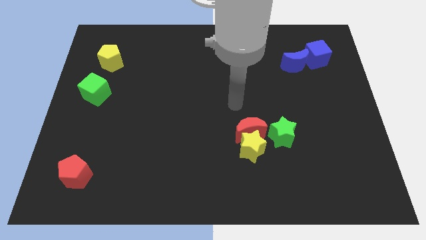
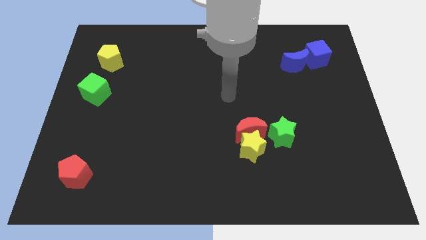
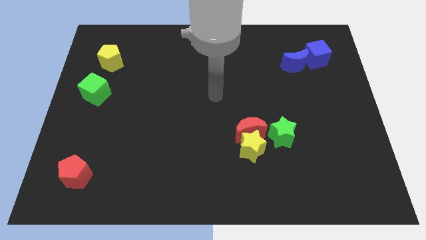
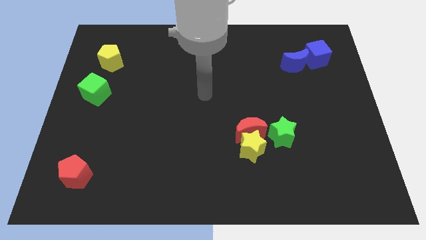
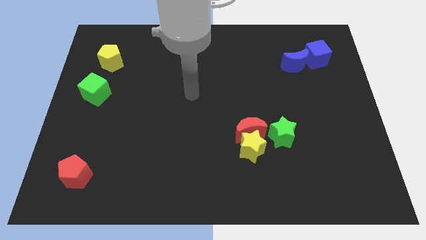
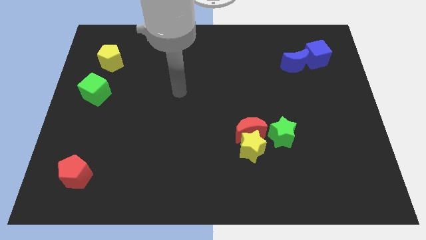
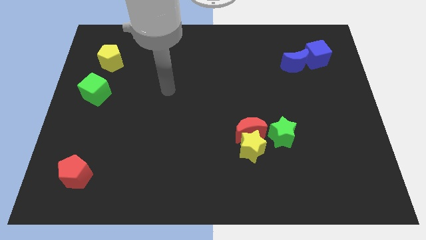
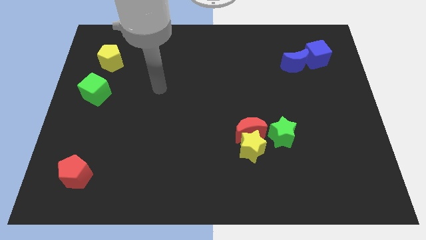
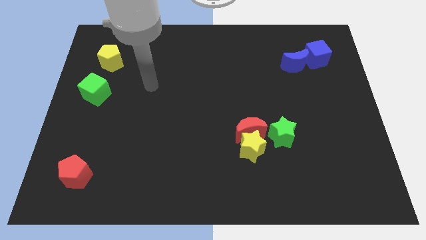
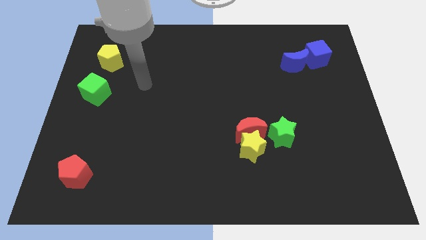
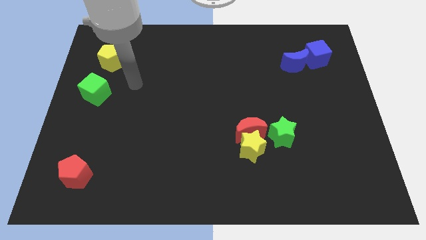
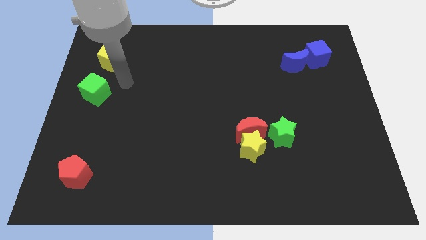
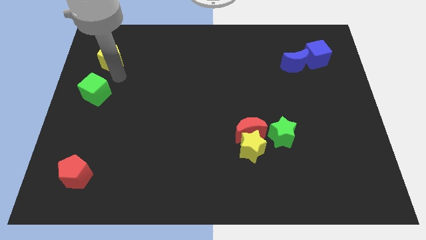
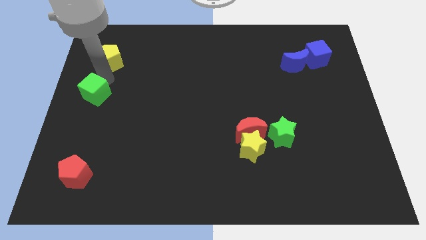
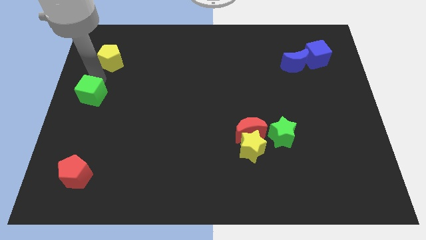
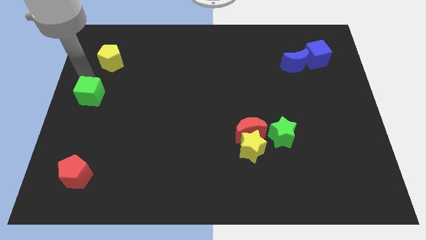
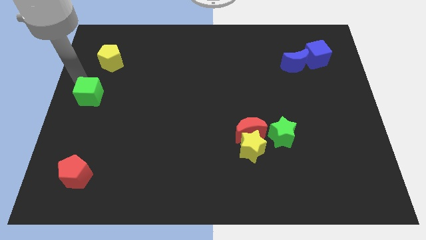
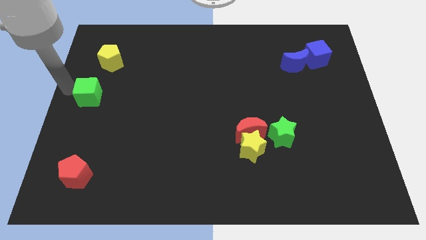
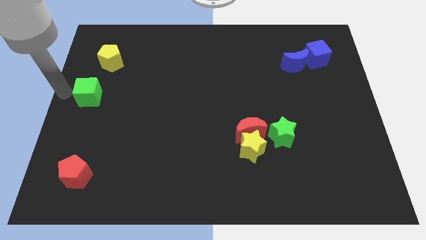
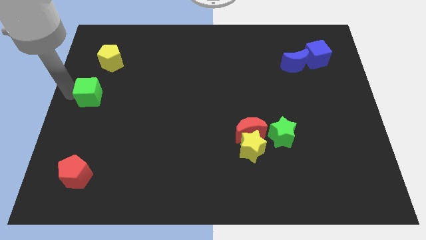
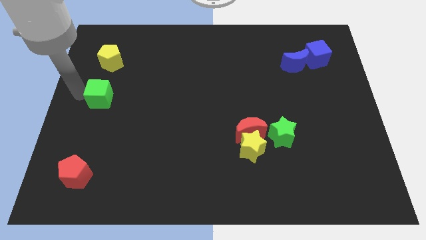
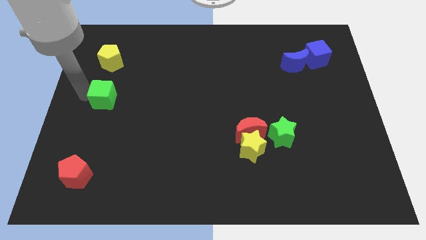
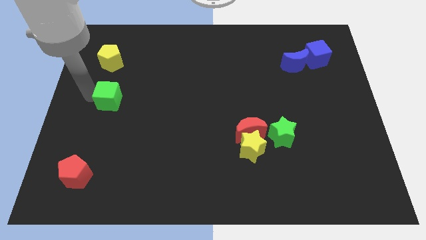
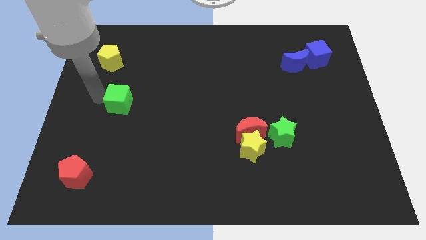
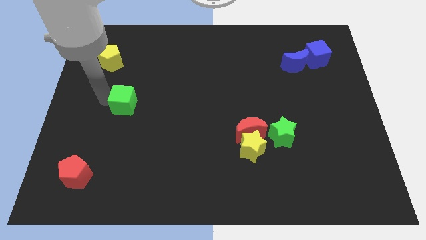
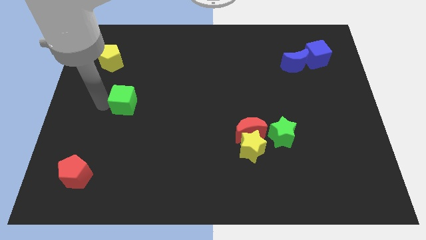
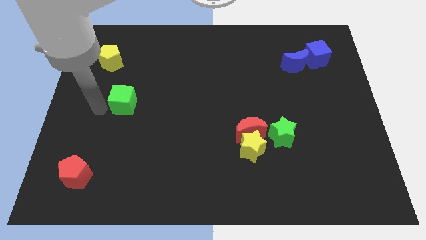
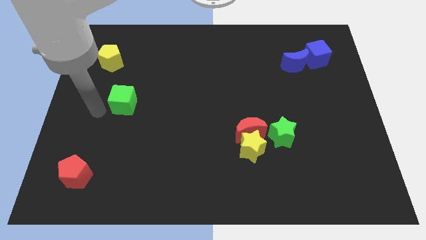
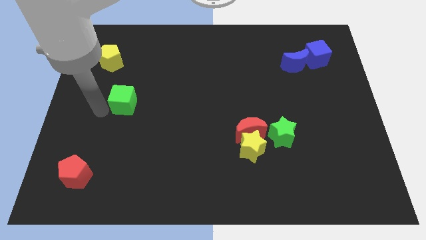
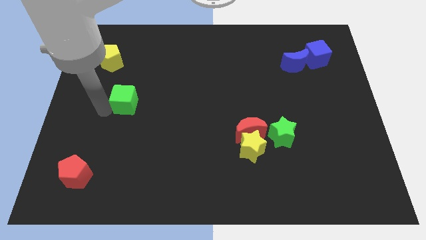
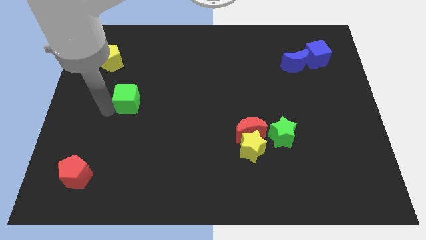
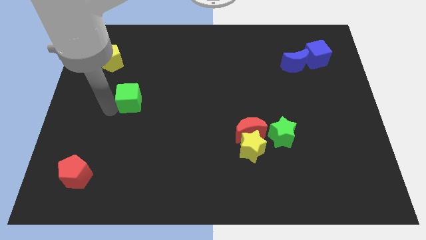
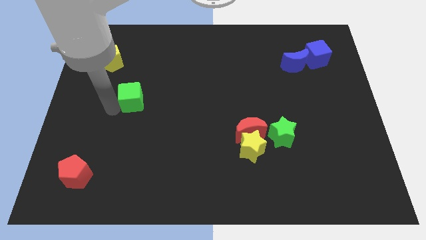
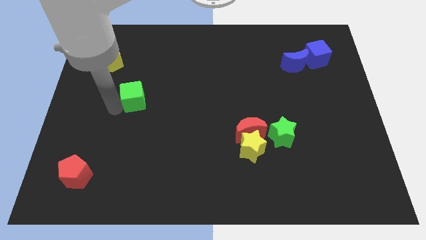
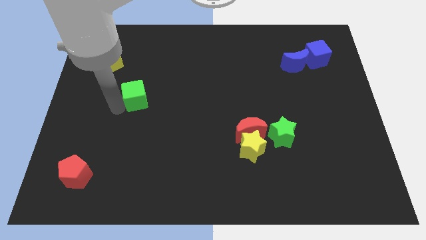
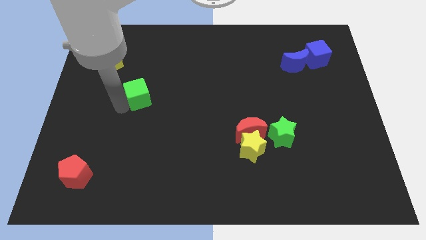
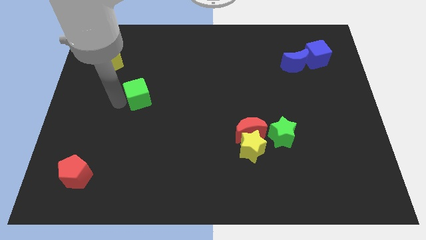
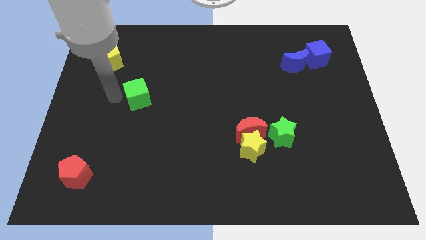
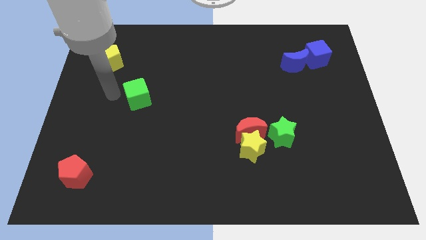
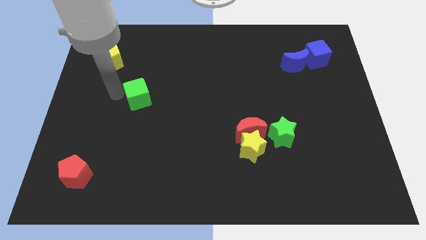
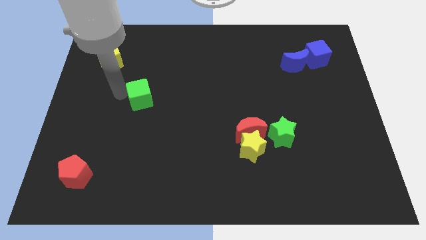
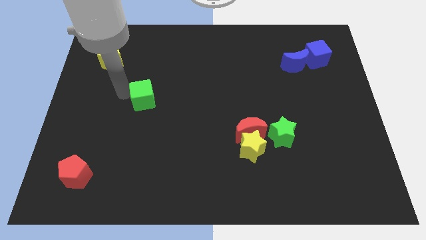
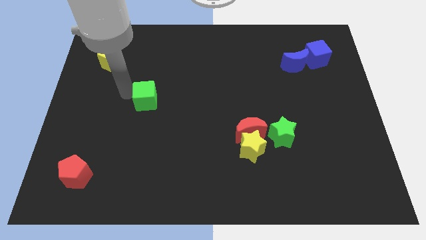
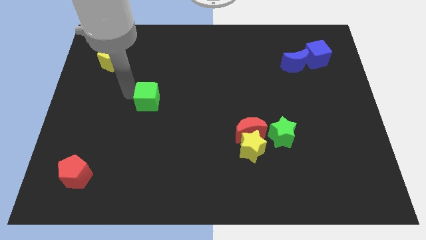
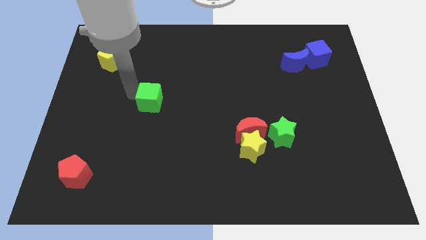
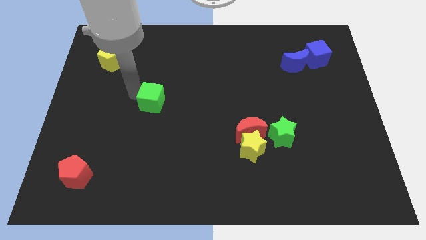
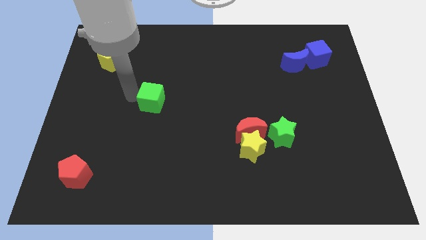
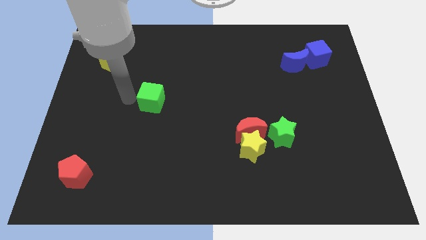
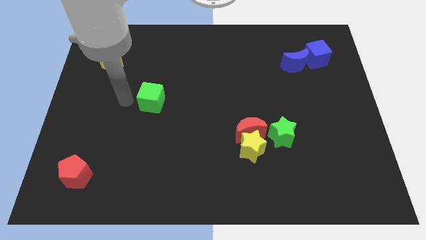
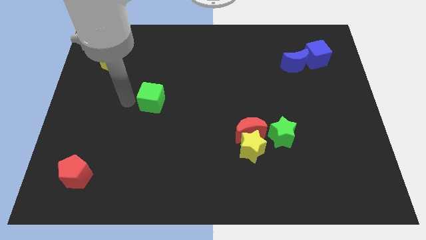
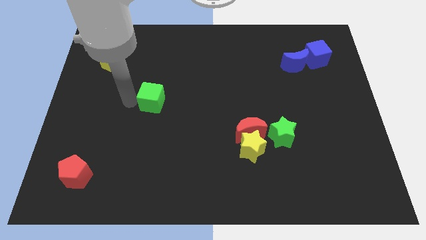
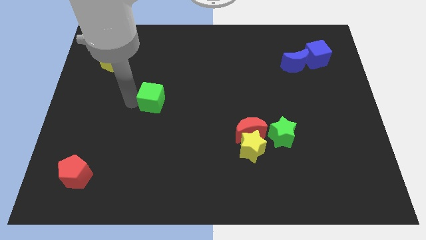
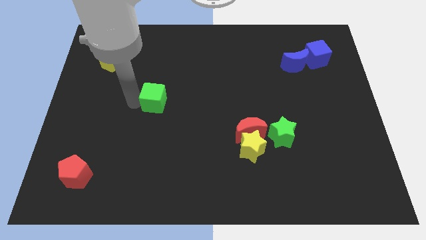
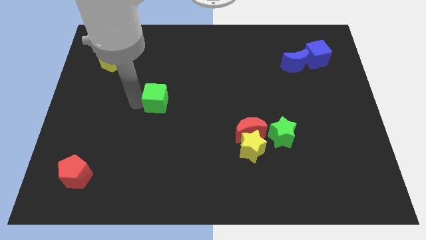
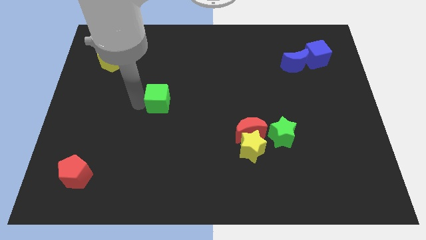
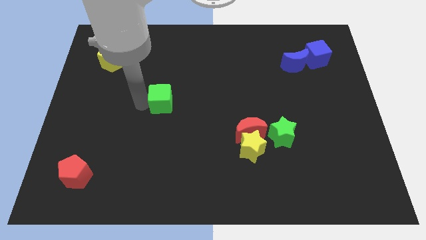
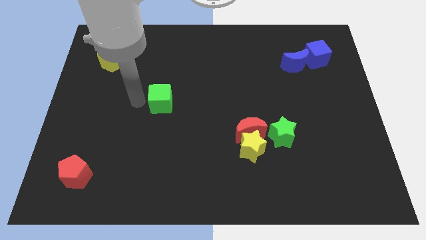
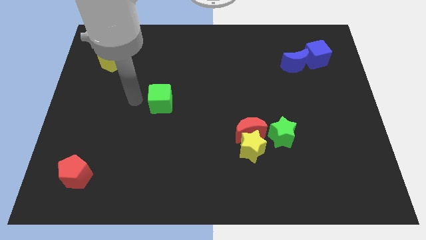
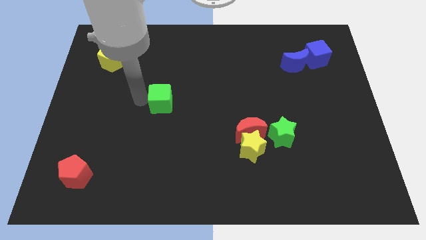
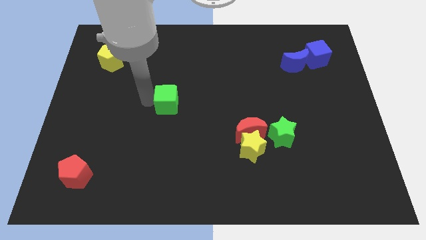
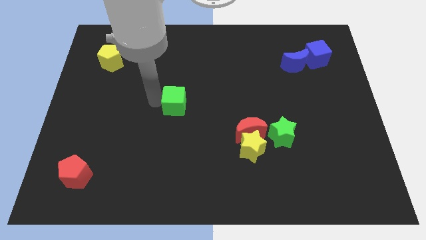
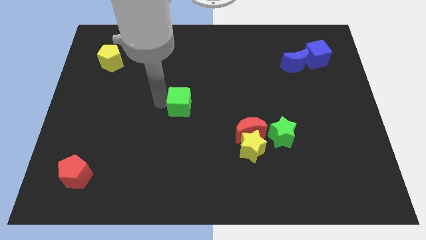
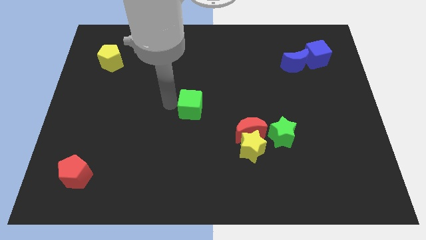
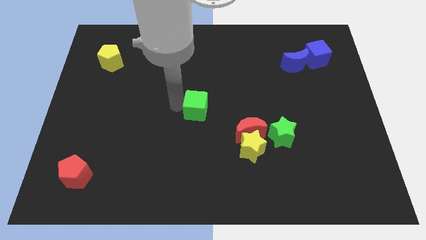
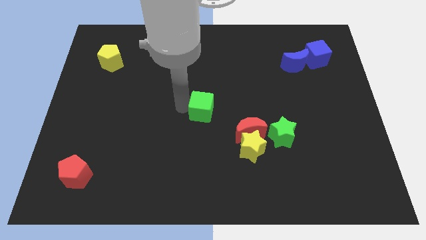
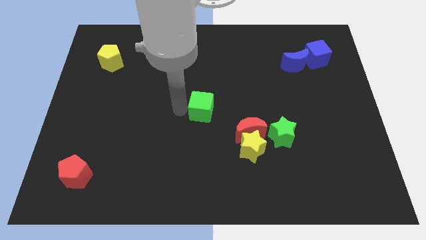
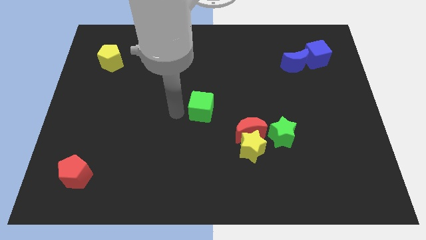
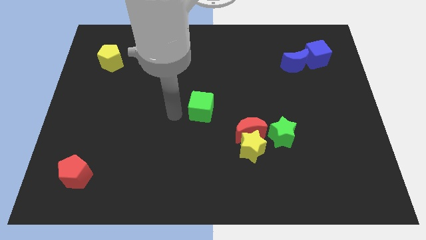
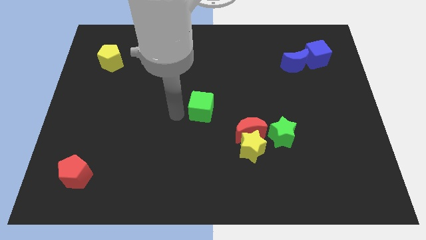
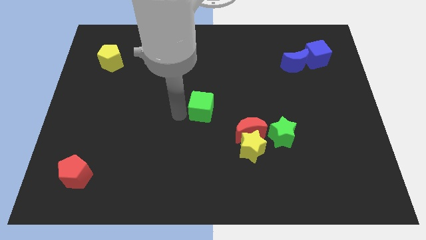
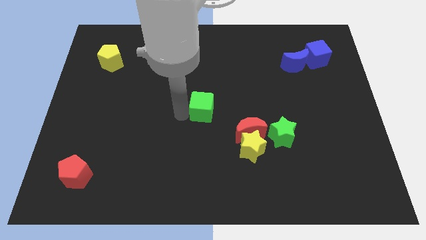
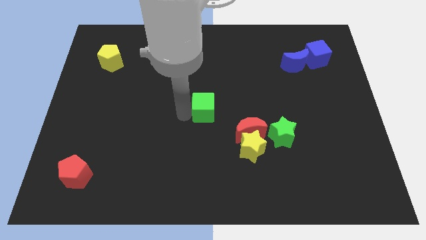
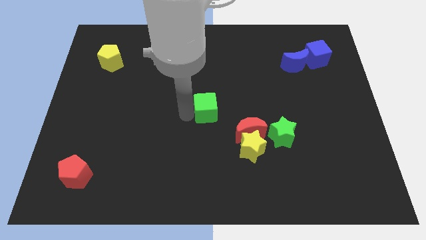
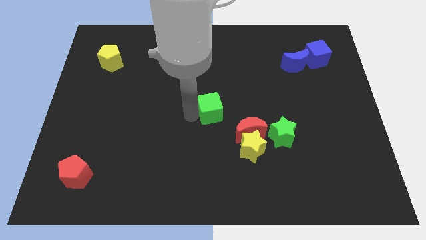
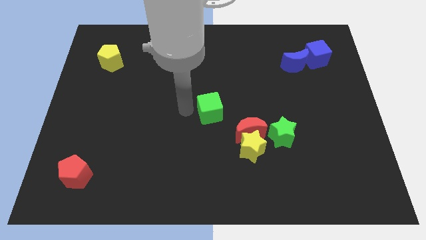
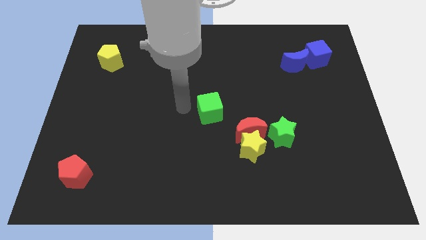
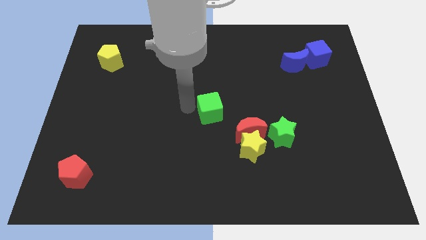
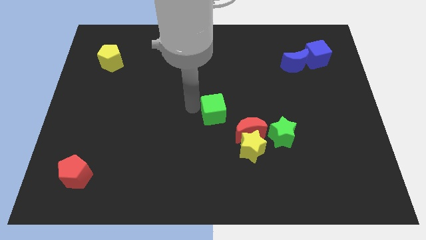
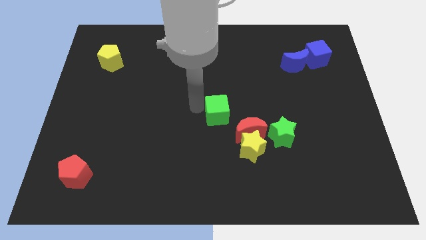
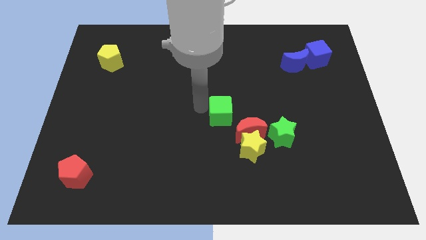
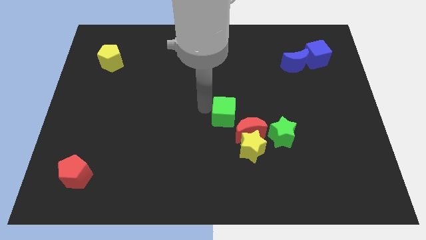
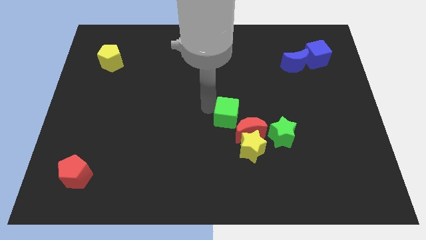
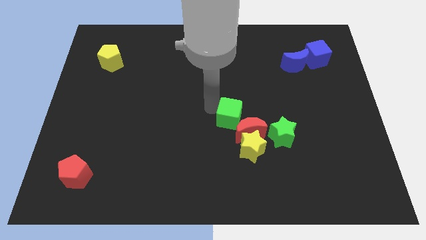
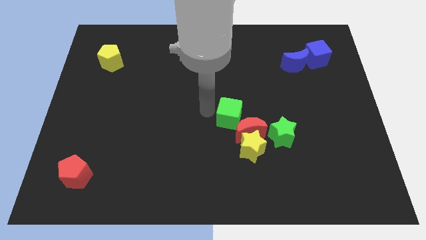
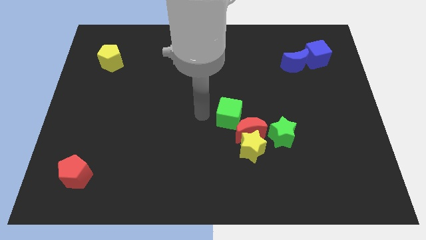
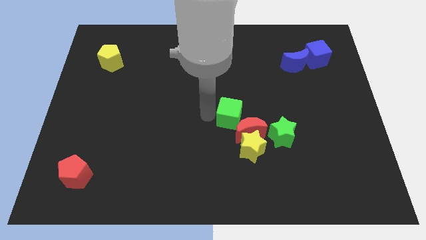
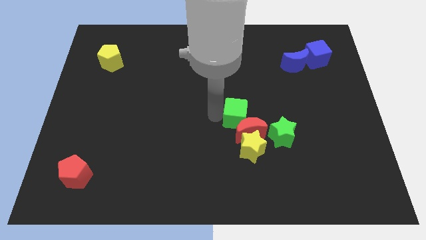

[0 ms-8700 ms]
slide the green cube to the top left of the green star
